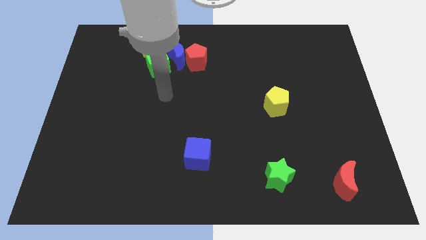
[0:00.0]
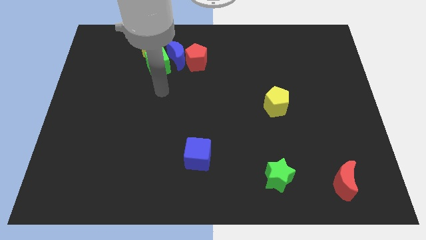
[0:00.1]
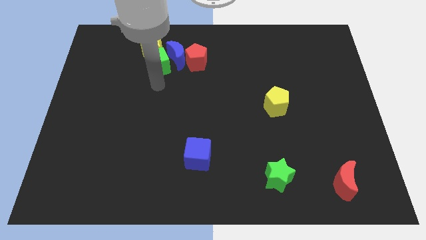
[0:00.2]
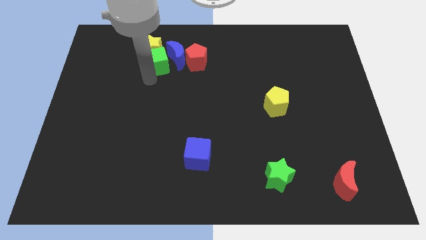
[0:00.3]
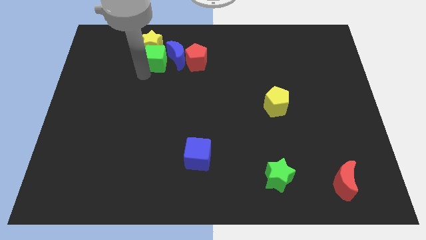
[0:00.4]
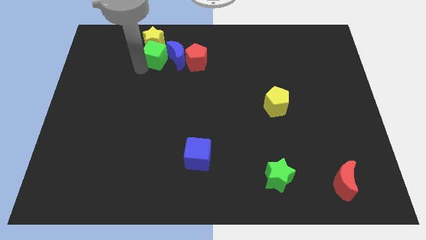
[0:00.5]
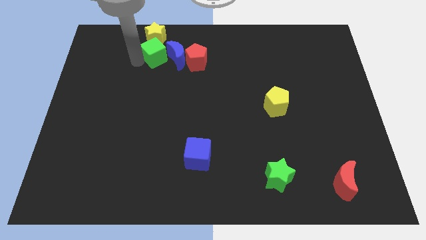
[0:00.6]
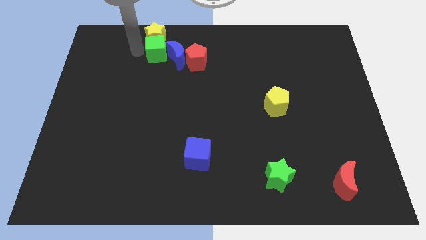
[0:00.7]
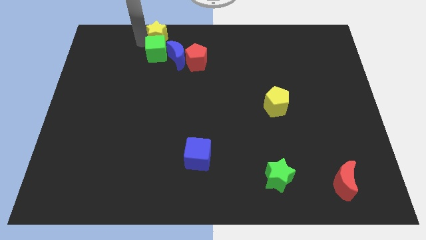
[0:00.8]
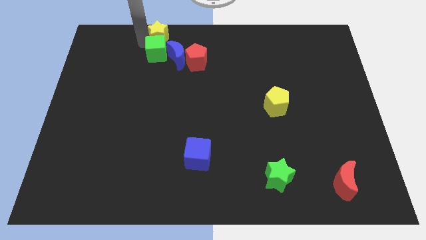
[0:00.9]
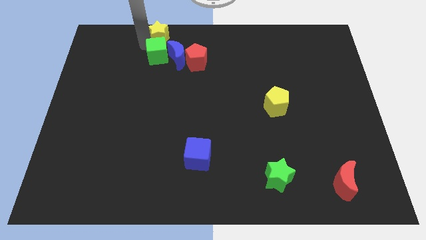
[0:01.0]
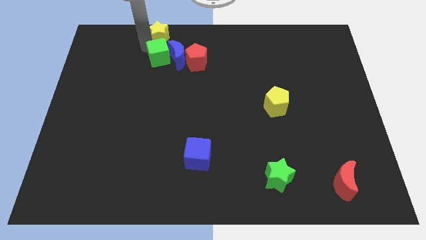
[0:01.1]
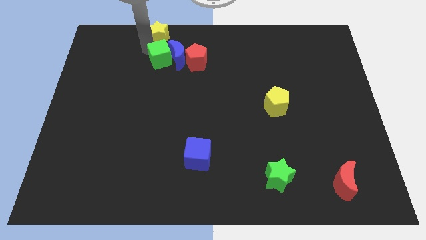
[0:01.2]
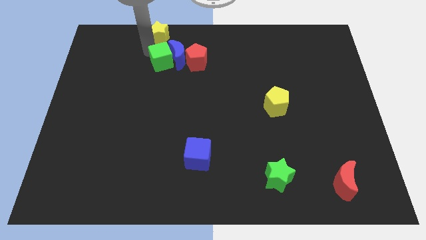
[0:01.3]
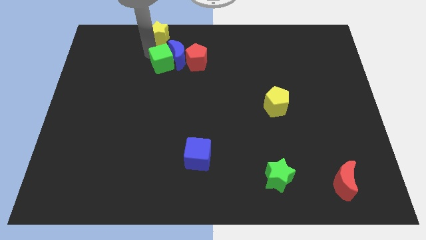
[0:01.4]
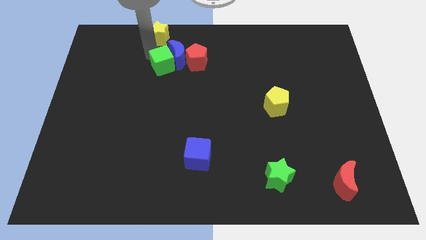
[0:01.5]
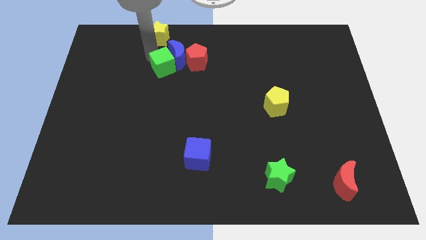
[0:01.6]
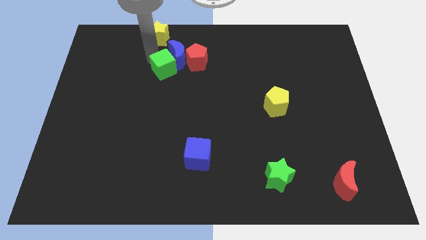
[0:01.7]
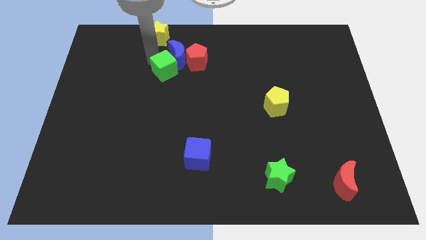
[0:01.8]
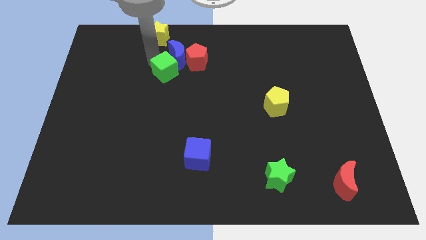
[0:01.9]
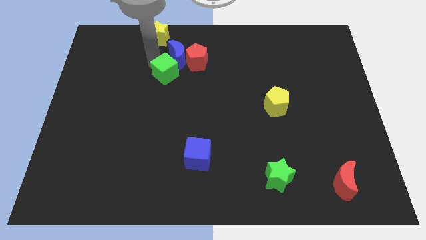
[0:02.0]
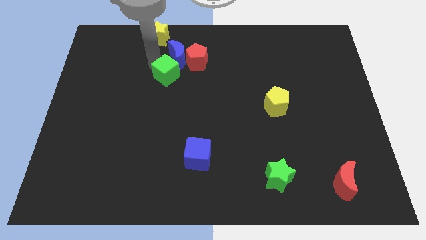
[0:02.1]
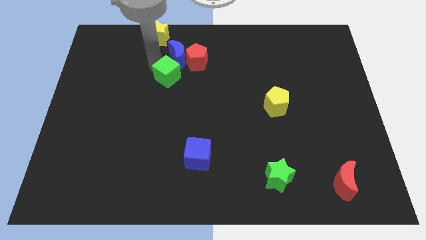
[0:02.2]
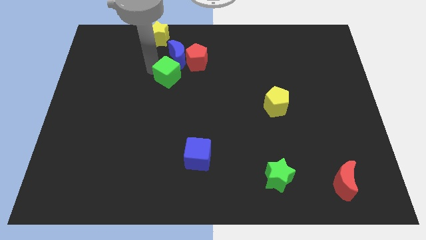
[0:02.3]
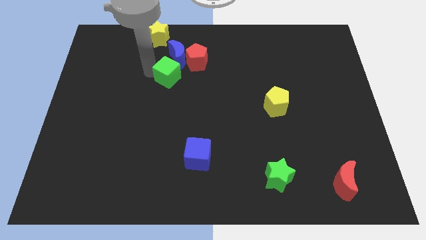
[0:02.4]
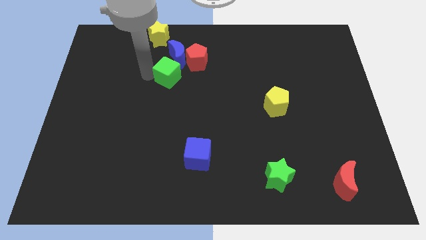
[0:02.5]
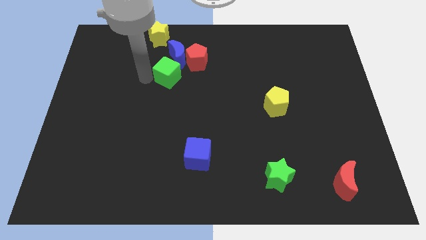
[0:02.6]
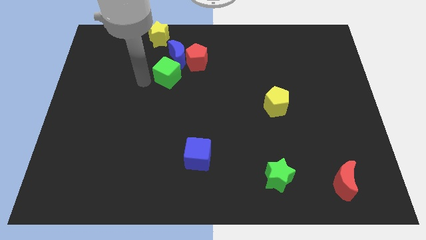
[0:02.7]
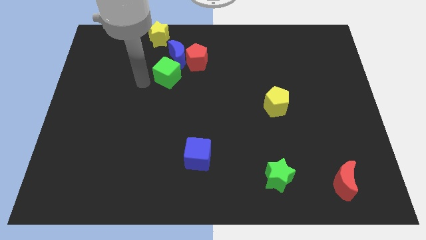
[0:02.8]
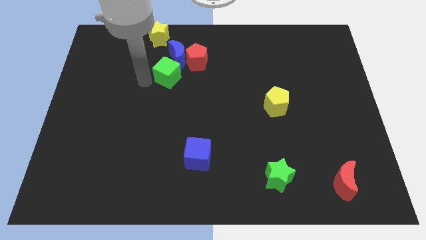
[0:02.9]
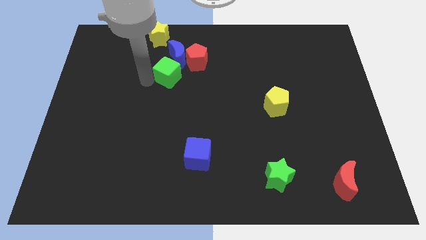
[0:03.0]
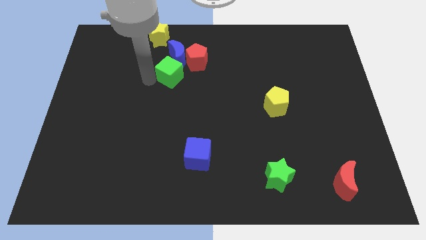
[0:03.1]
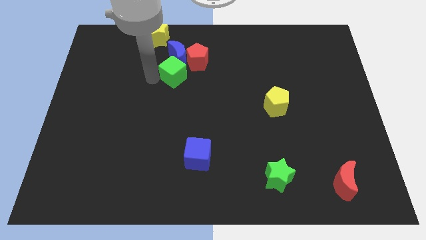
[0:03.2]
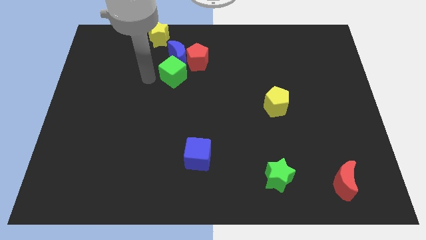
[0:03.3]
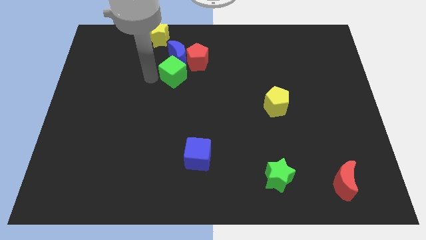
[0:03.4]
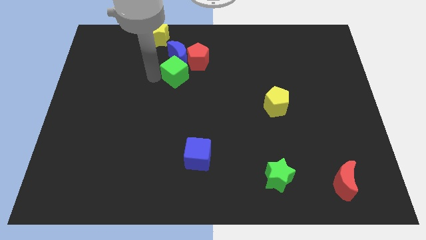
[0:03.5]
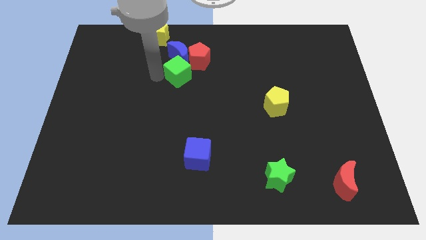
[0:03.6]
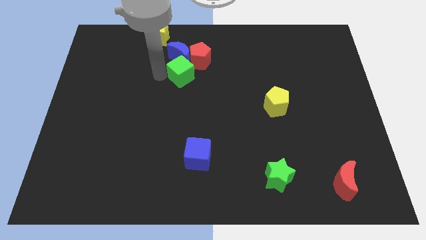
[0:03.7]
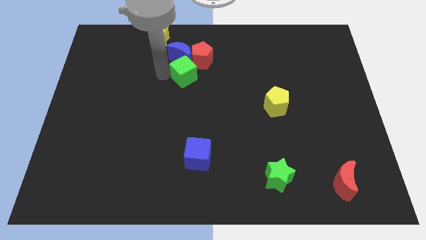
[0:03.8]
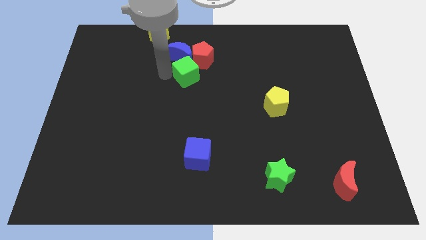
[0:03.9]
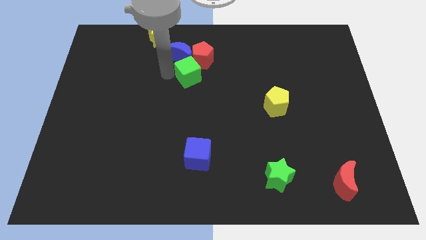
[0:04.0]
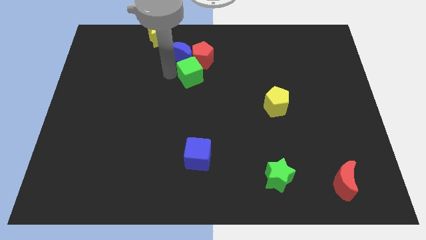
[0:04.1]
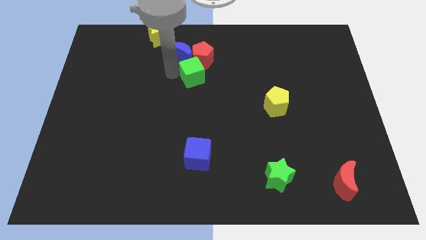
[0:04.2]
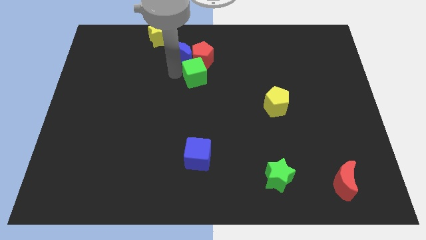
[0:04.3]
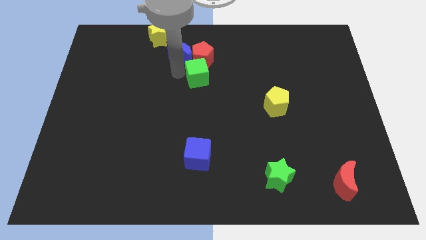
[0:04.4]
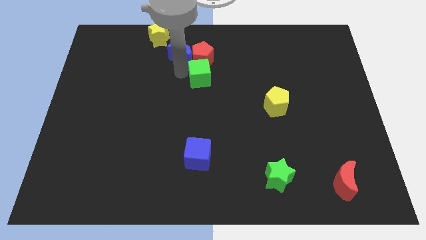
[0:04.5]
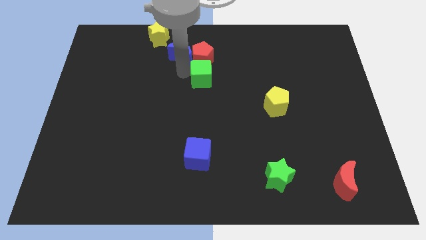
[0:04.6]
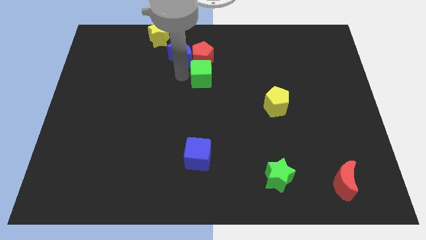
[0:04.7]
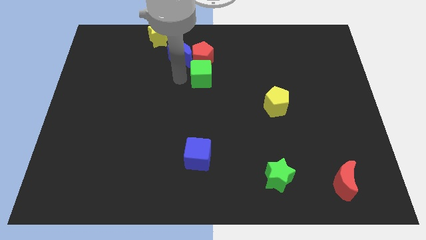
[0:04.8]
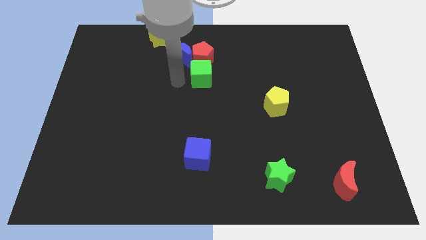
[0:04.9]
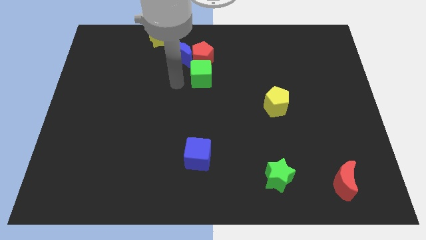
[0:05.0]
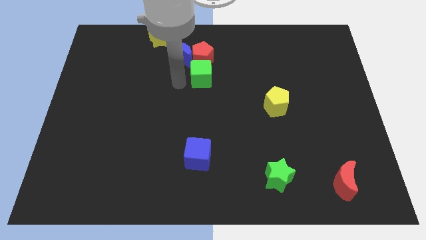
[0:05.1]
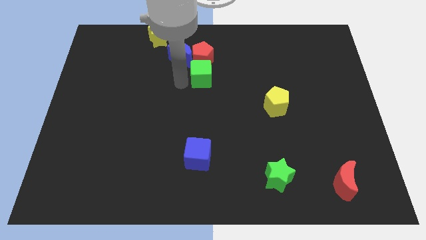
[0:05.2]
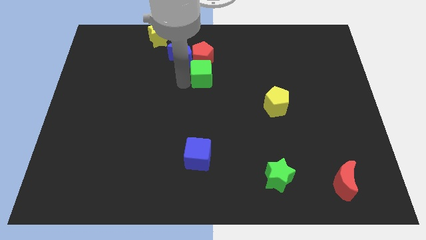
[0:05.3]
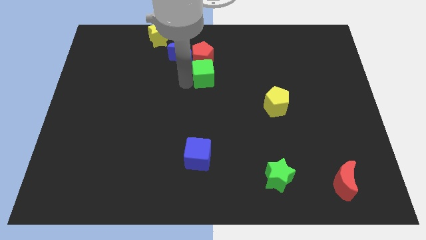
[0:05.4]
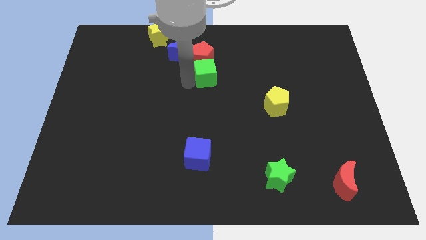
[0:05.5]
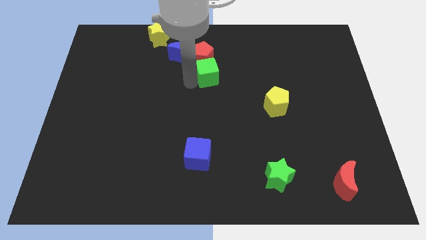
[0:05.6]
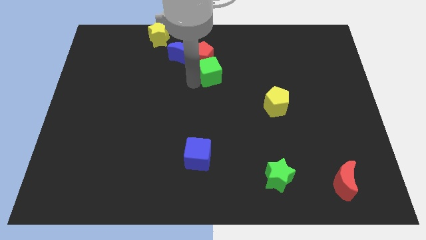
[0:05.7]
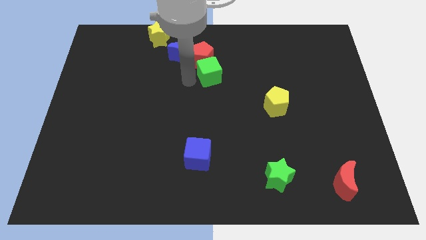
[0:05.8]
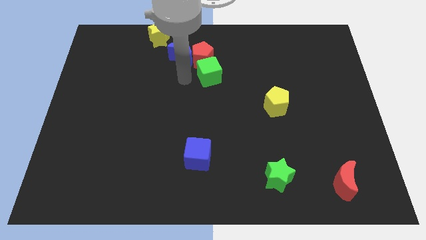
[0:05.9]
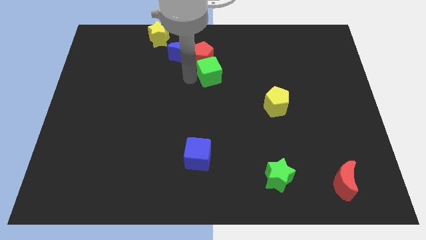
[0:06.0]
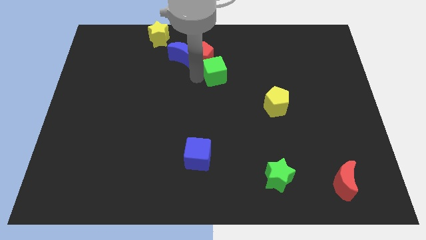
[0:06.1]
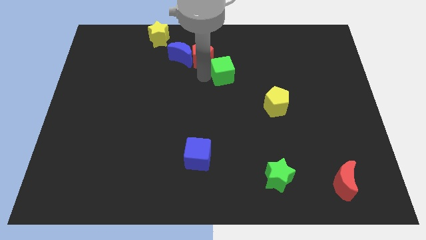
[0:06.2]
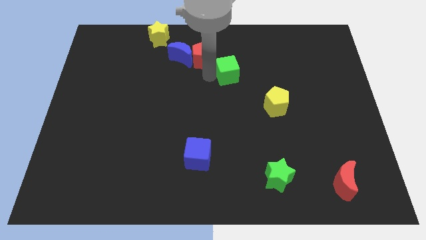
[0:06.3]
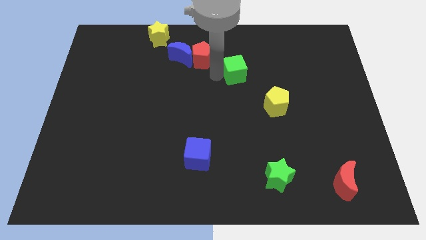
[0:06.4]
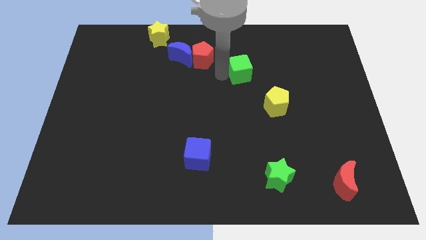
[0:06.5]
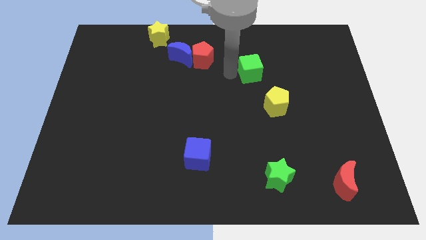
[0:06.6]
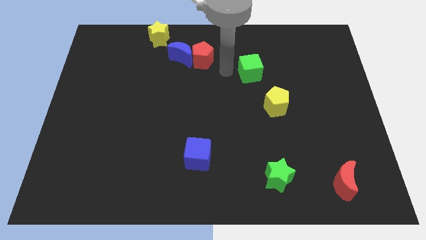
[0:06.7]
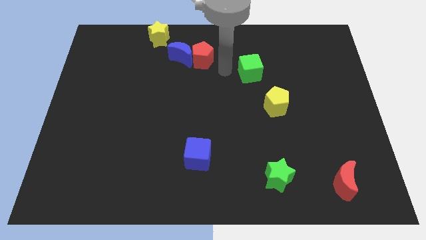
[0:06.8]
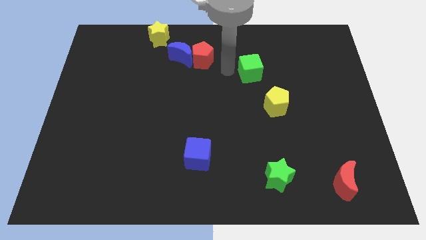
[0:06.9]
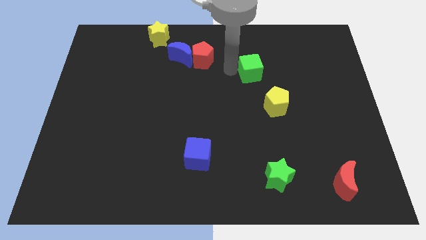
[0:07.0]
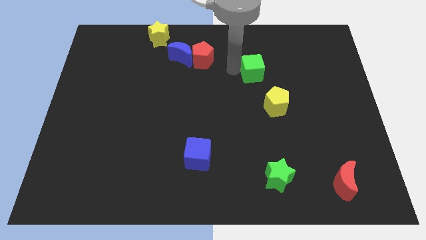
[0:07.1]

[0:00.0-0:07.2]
slide the green cube to the top side of the yellow pentagon

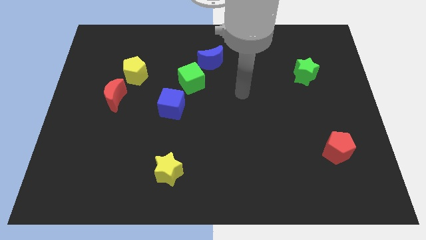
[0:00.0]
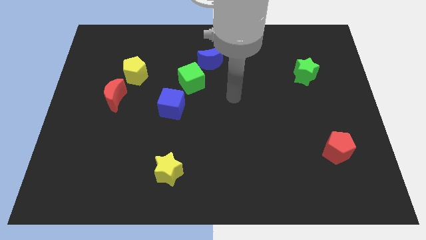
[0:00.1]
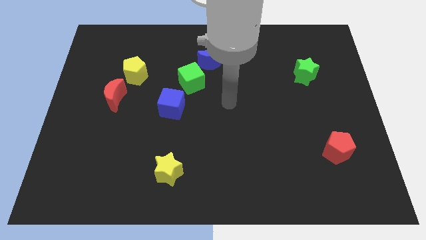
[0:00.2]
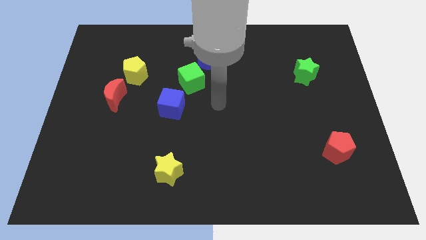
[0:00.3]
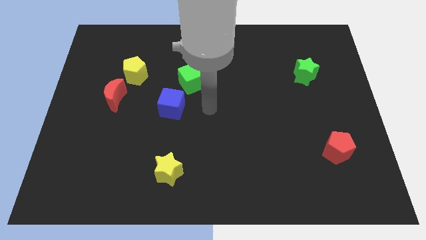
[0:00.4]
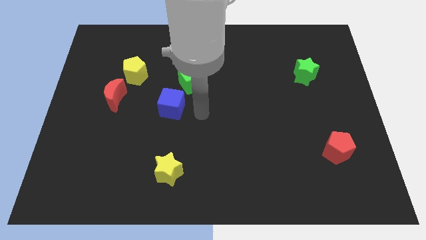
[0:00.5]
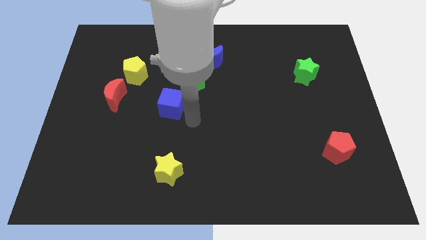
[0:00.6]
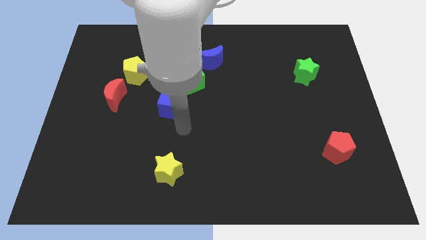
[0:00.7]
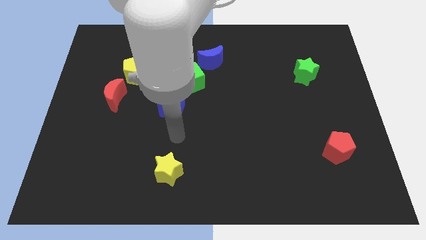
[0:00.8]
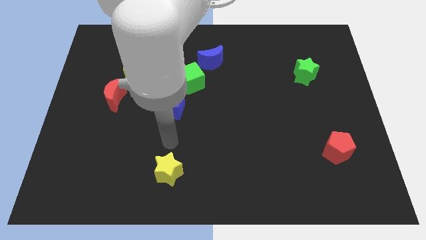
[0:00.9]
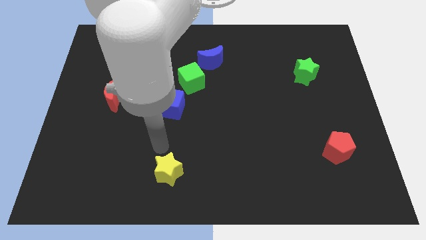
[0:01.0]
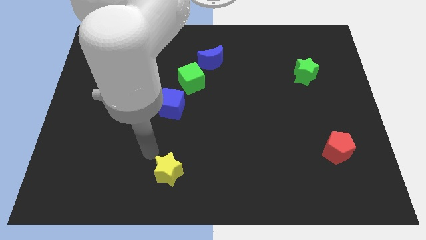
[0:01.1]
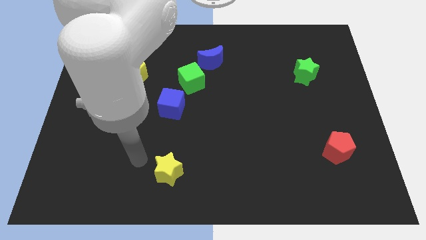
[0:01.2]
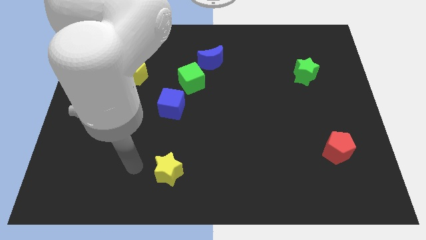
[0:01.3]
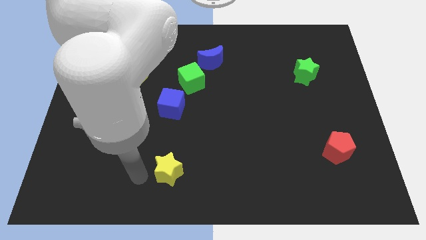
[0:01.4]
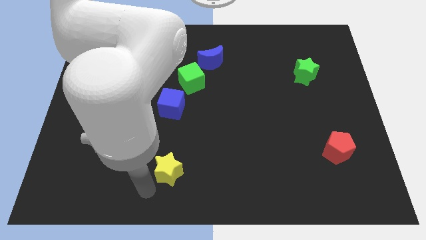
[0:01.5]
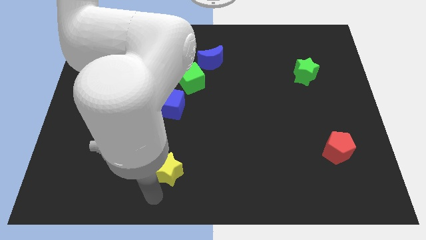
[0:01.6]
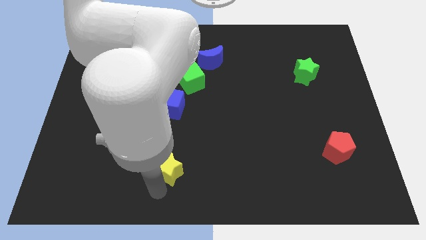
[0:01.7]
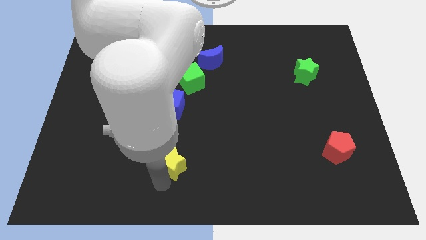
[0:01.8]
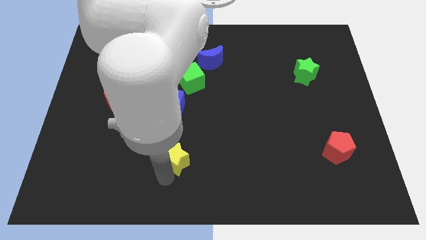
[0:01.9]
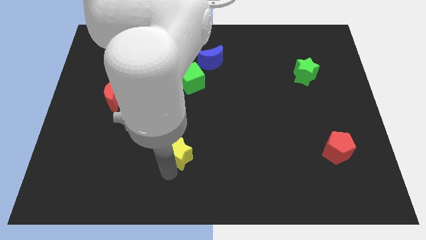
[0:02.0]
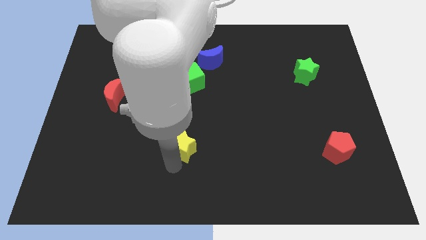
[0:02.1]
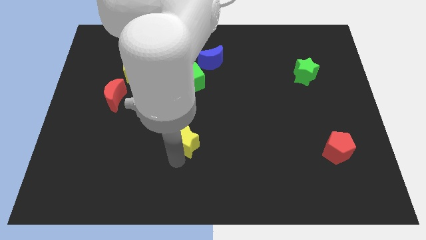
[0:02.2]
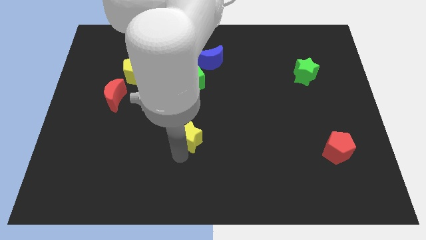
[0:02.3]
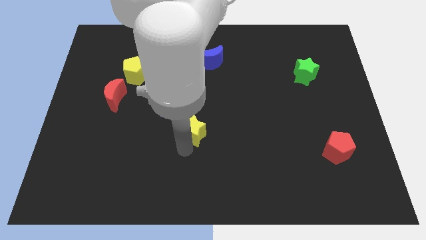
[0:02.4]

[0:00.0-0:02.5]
push the yellow star to the bottom side of the green cube
